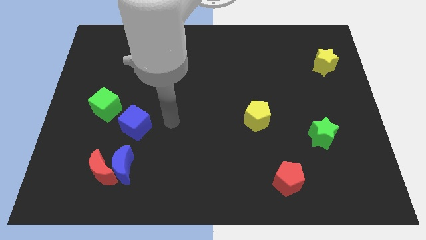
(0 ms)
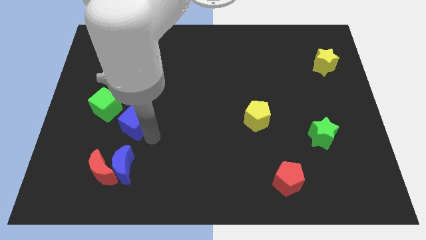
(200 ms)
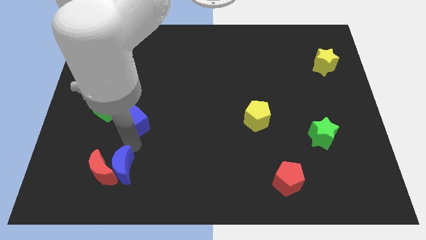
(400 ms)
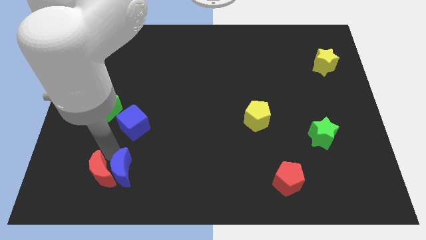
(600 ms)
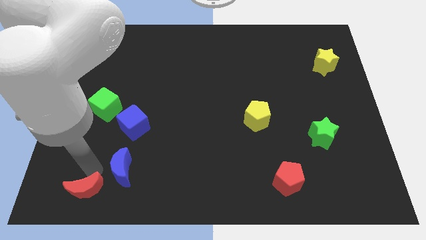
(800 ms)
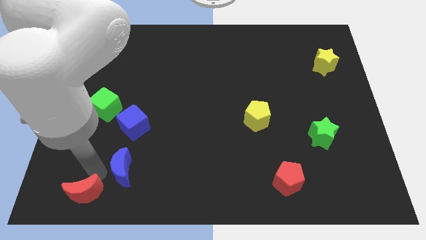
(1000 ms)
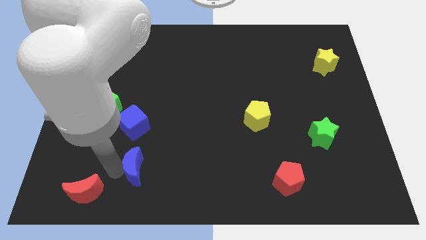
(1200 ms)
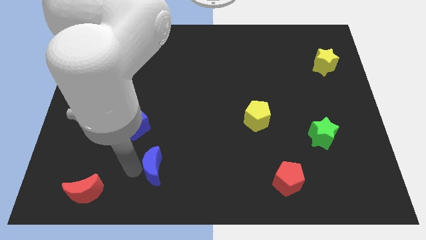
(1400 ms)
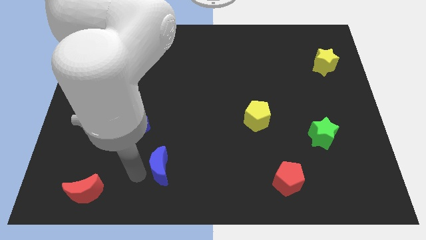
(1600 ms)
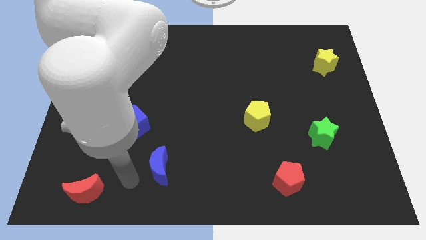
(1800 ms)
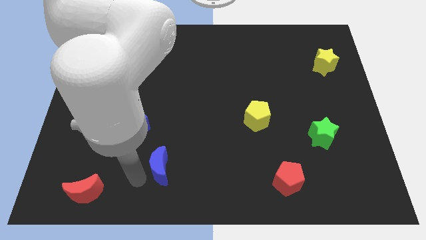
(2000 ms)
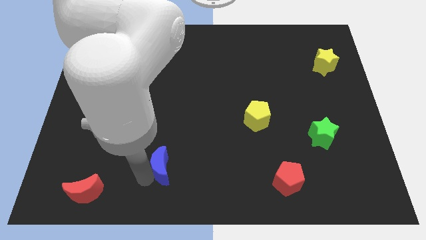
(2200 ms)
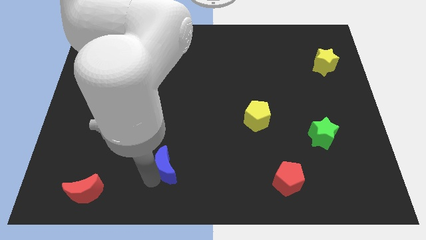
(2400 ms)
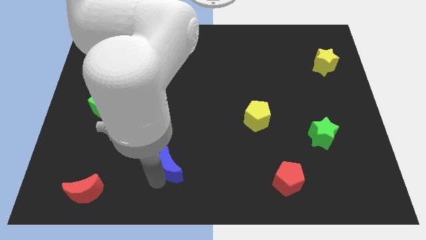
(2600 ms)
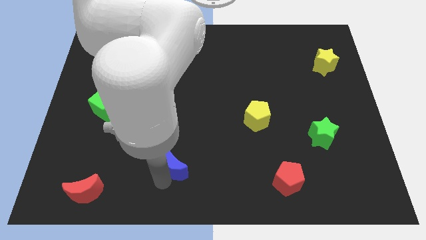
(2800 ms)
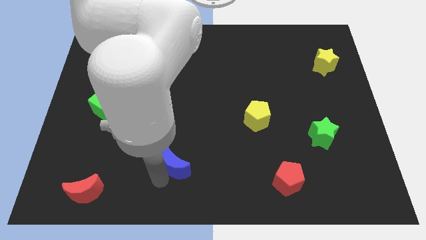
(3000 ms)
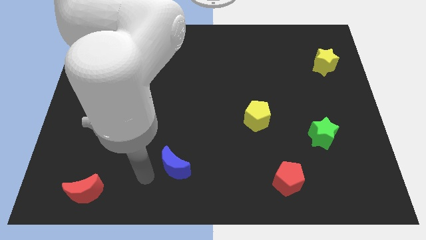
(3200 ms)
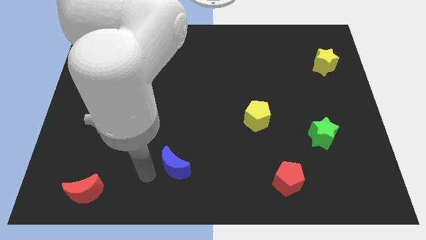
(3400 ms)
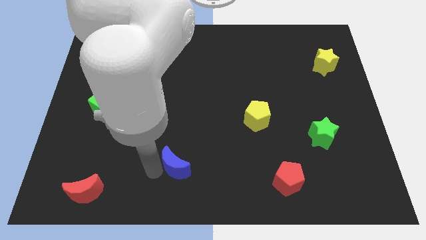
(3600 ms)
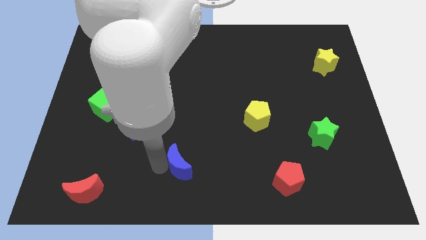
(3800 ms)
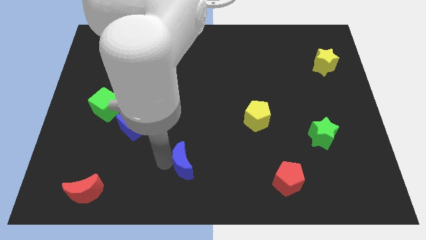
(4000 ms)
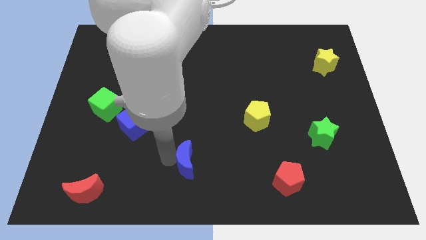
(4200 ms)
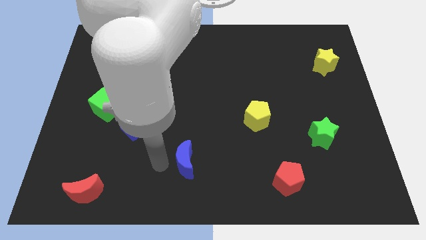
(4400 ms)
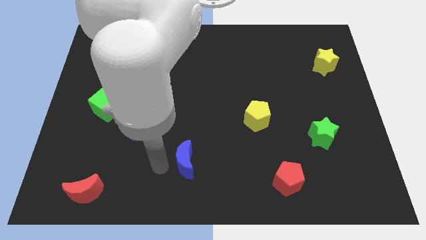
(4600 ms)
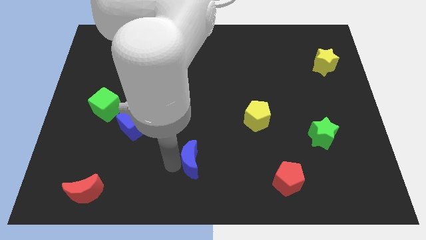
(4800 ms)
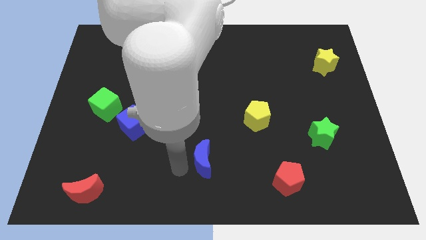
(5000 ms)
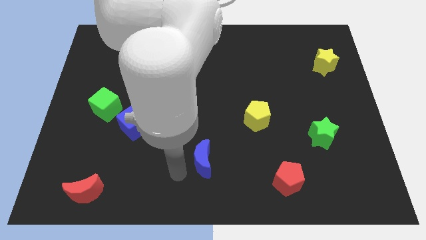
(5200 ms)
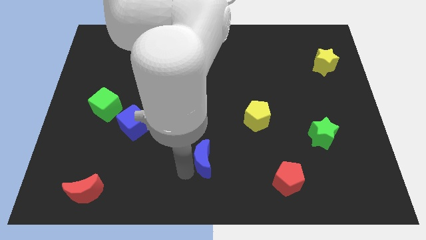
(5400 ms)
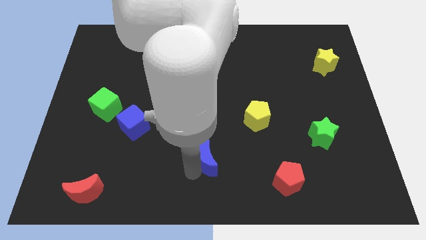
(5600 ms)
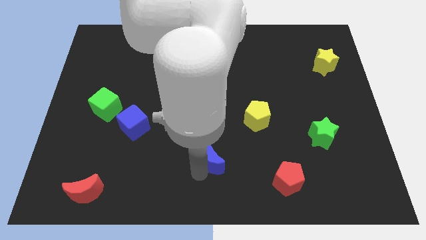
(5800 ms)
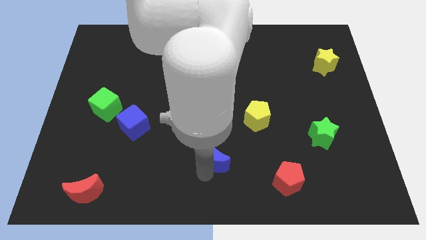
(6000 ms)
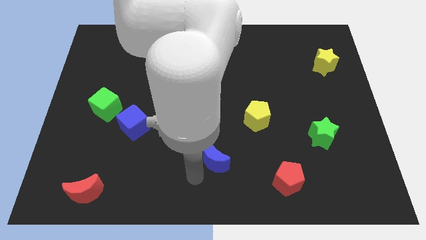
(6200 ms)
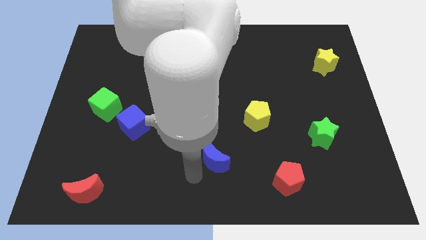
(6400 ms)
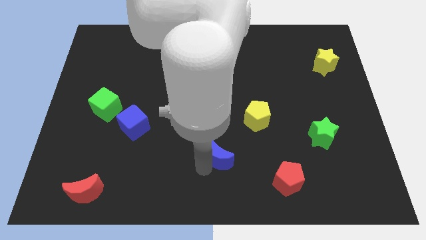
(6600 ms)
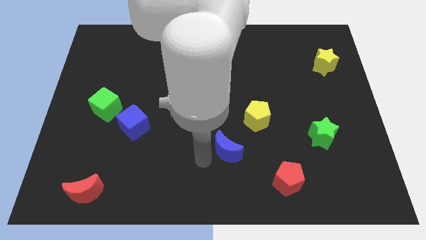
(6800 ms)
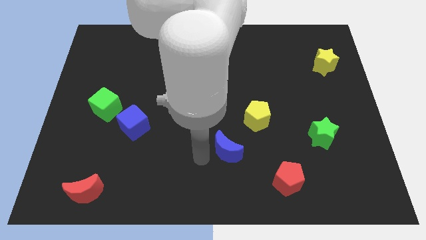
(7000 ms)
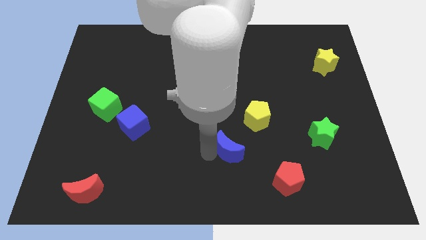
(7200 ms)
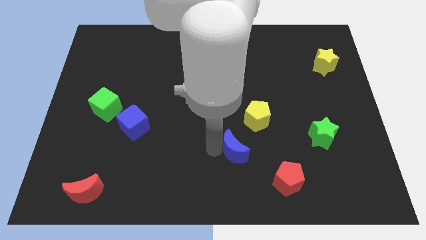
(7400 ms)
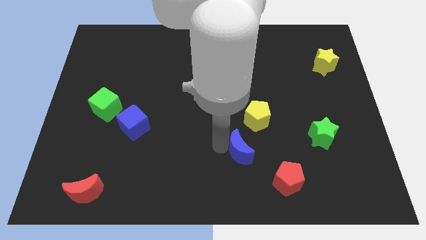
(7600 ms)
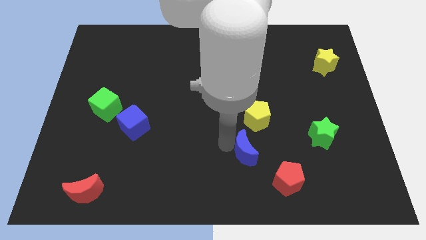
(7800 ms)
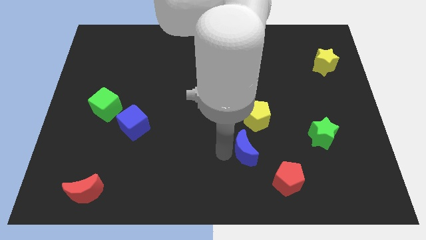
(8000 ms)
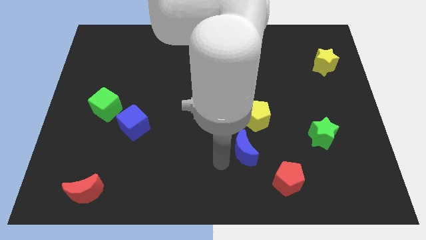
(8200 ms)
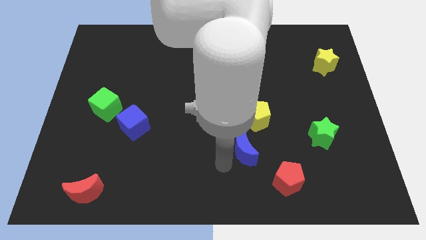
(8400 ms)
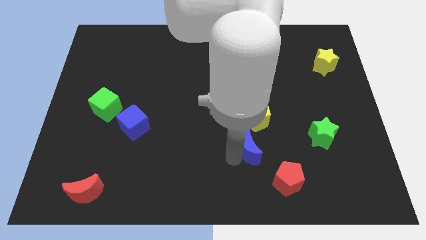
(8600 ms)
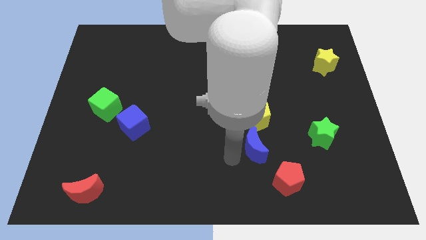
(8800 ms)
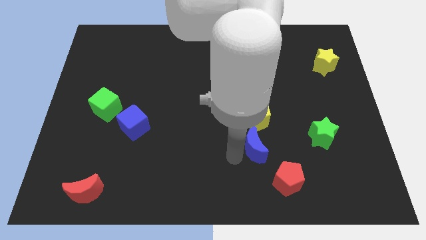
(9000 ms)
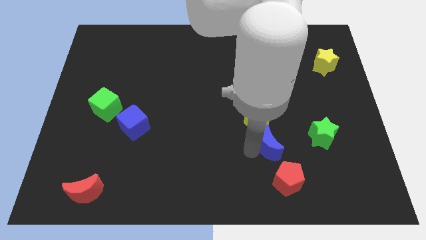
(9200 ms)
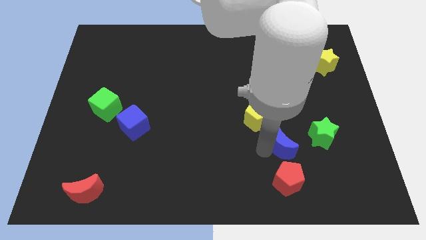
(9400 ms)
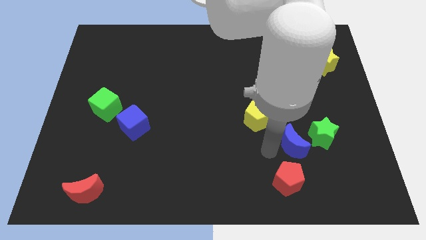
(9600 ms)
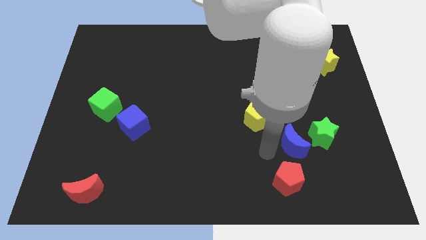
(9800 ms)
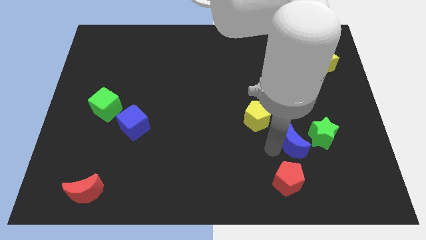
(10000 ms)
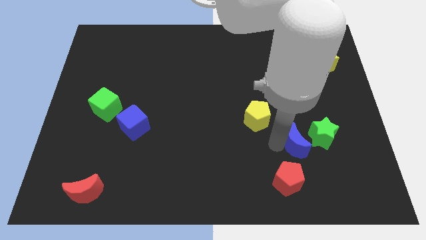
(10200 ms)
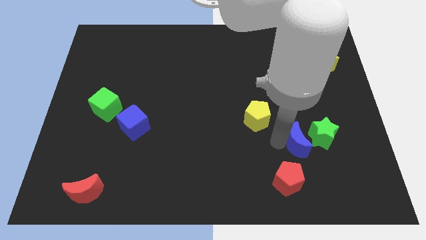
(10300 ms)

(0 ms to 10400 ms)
move the blue moon next to the green star

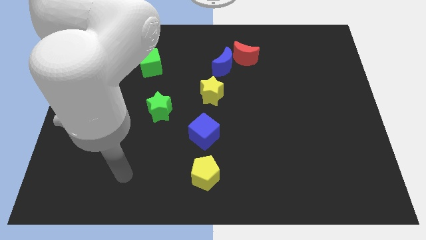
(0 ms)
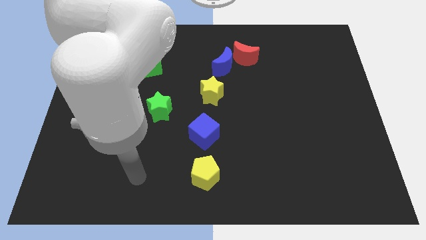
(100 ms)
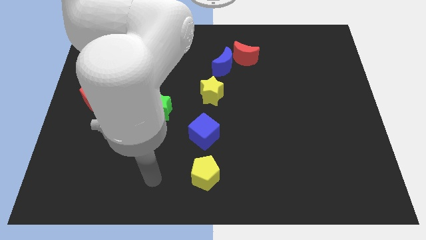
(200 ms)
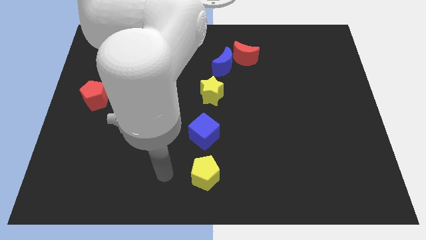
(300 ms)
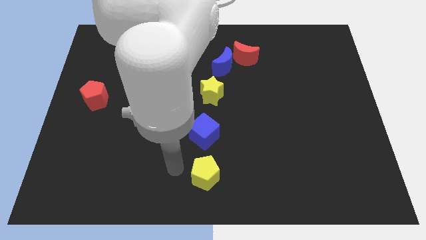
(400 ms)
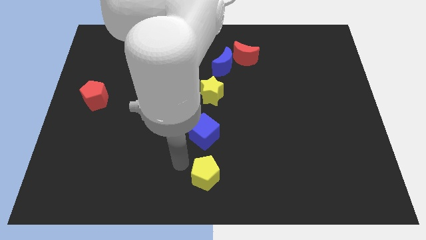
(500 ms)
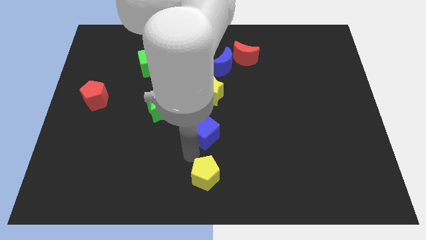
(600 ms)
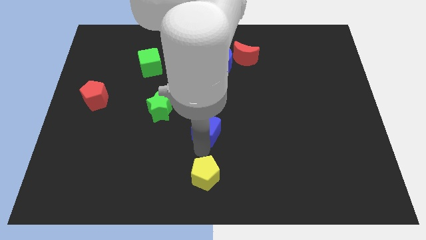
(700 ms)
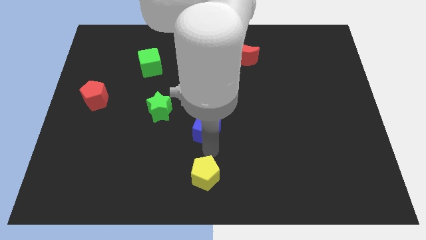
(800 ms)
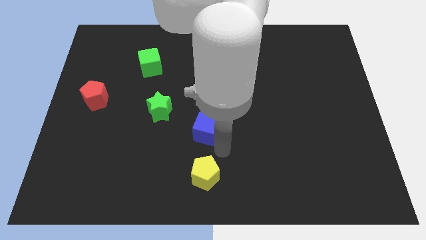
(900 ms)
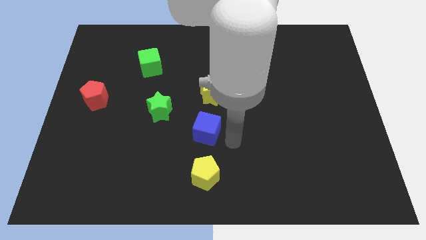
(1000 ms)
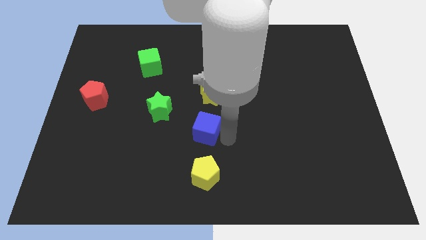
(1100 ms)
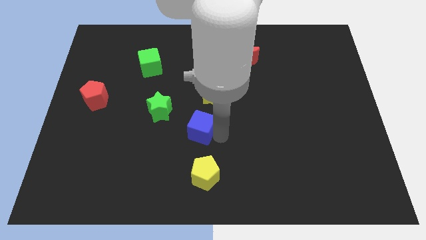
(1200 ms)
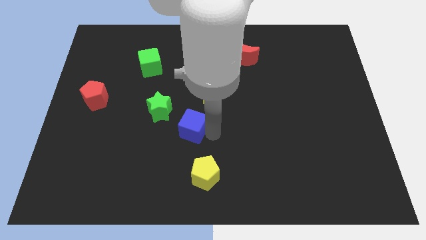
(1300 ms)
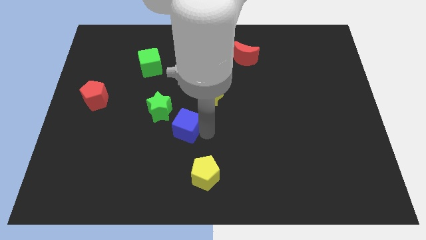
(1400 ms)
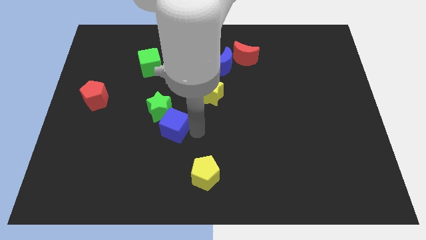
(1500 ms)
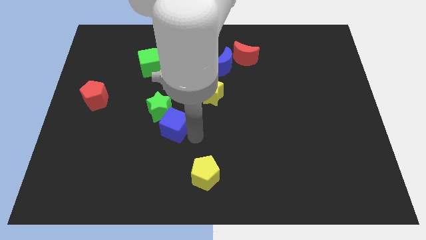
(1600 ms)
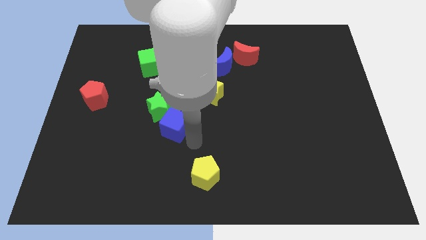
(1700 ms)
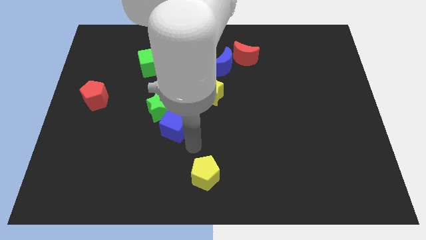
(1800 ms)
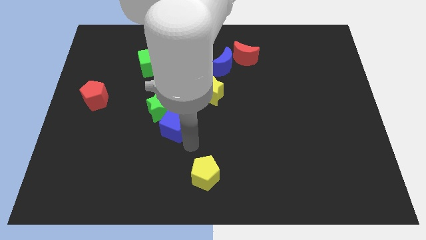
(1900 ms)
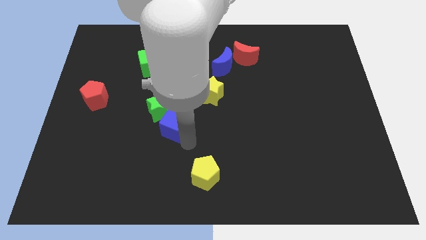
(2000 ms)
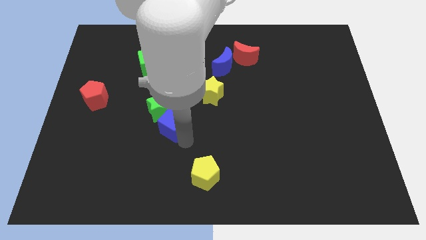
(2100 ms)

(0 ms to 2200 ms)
slide the blue cube next to the green star

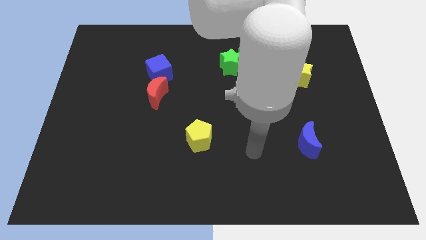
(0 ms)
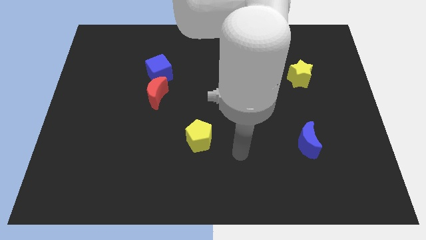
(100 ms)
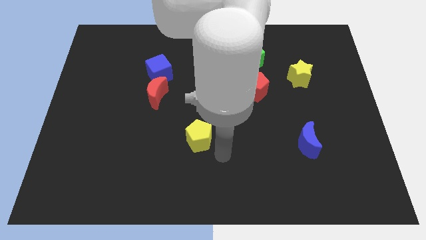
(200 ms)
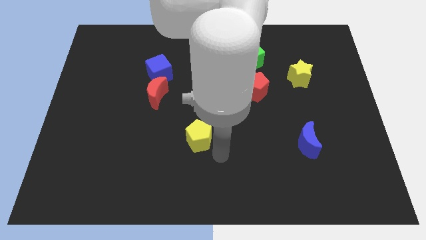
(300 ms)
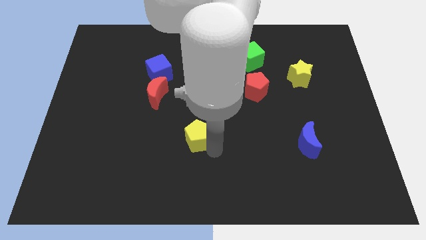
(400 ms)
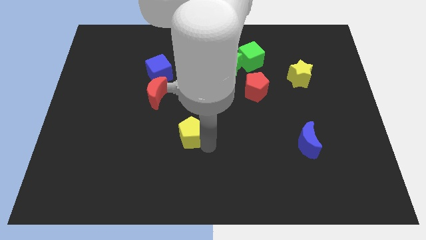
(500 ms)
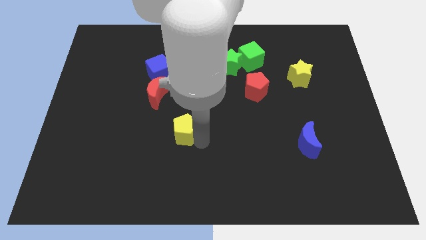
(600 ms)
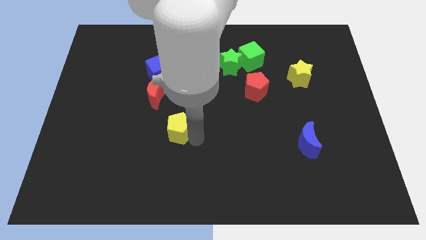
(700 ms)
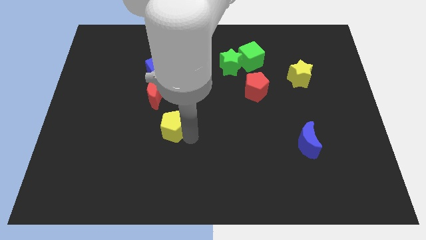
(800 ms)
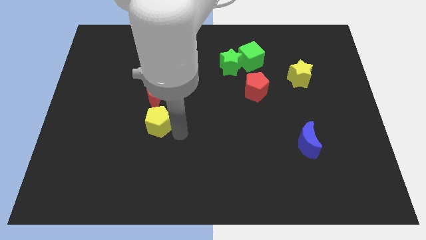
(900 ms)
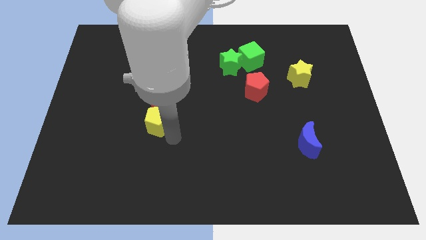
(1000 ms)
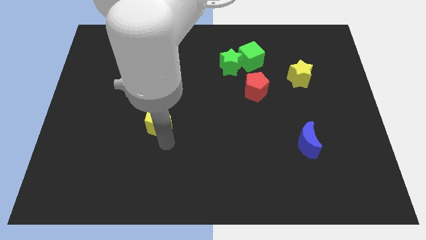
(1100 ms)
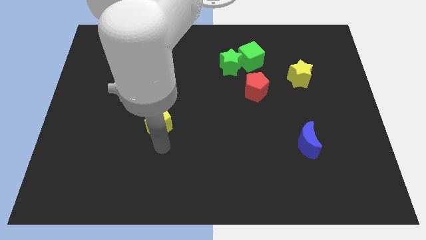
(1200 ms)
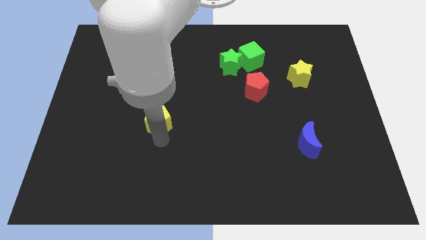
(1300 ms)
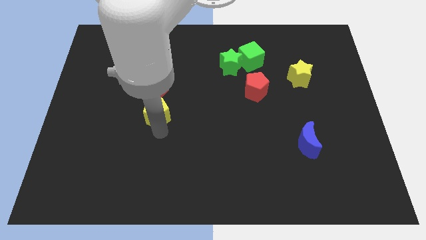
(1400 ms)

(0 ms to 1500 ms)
move the yellow pentagon to the red moon
